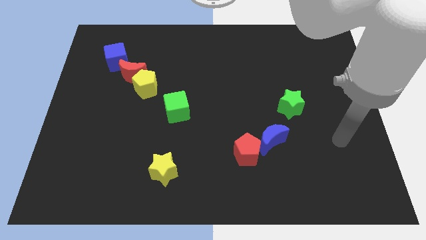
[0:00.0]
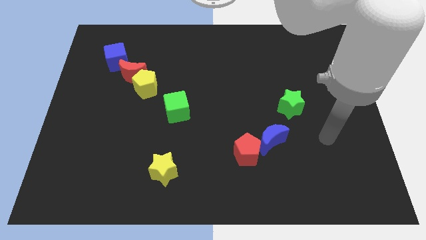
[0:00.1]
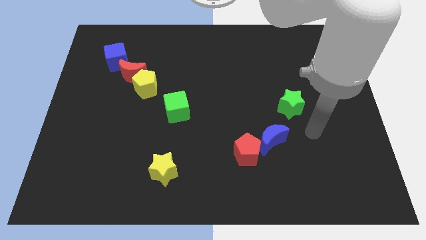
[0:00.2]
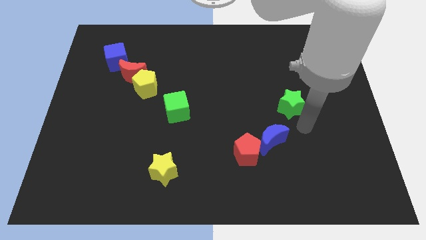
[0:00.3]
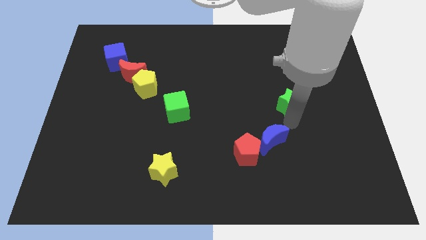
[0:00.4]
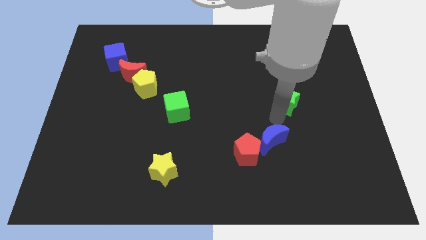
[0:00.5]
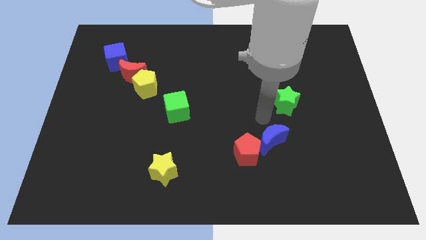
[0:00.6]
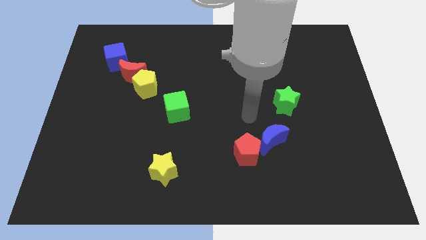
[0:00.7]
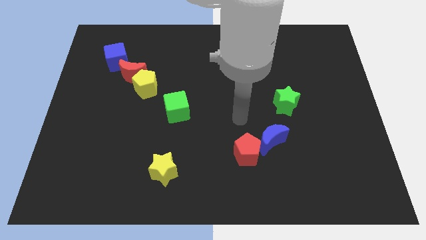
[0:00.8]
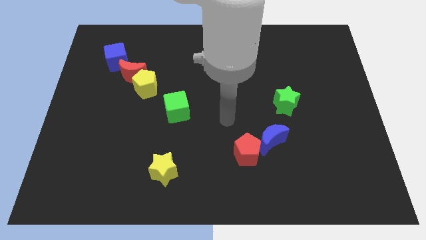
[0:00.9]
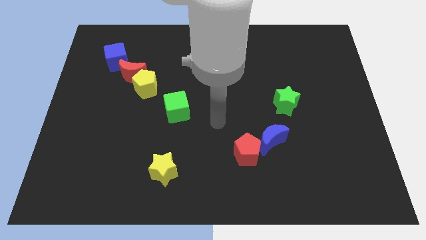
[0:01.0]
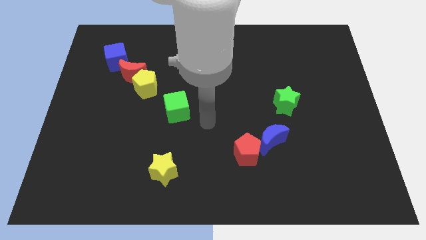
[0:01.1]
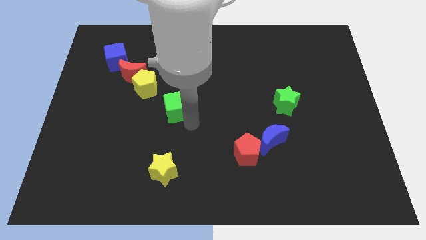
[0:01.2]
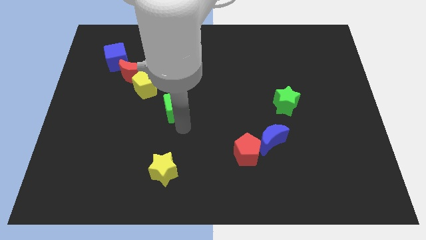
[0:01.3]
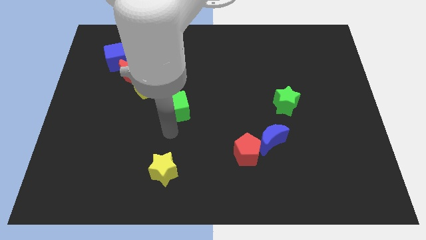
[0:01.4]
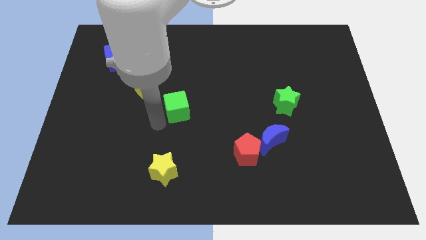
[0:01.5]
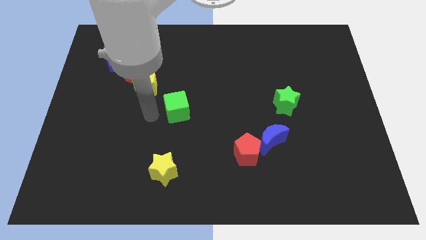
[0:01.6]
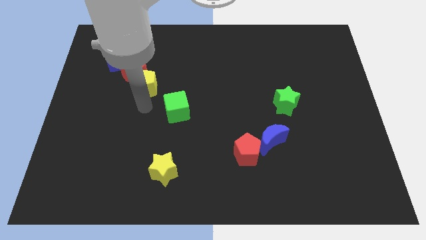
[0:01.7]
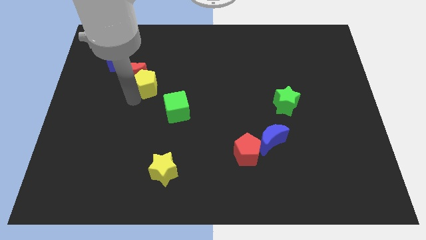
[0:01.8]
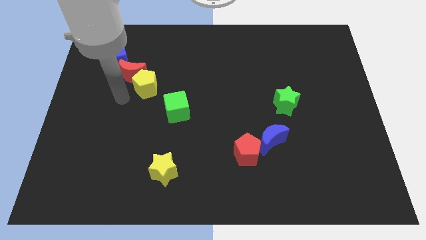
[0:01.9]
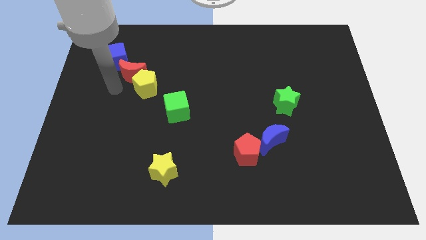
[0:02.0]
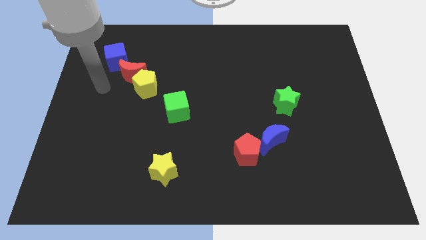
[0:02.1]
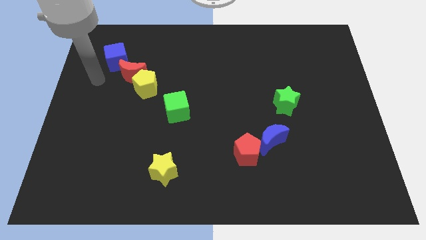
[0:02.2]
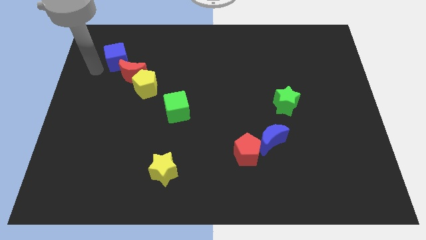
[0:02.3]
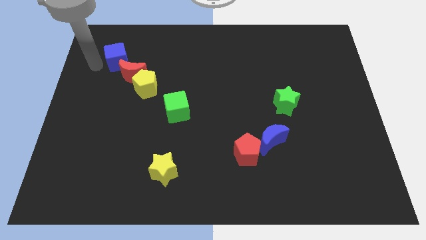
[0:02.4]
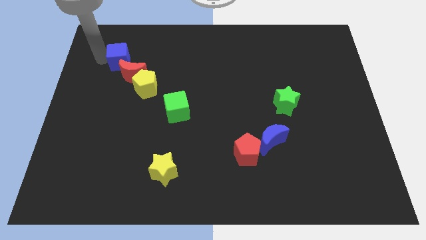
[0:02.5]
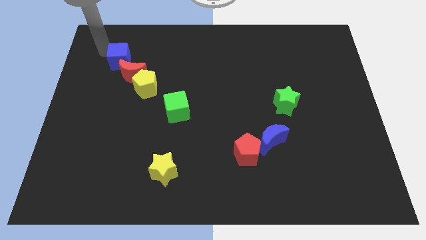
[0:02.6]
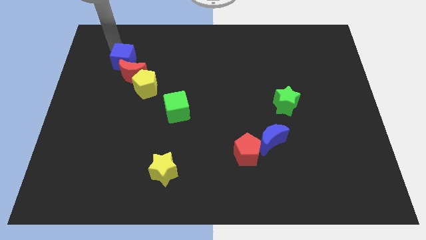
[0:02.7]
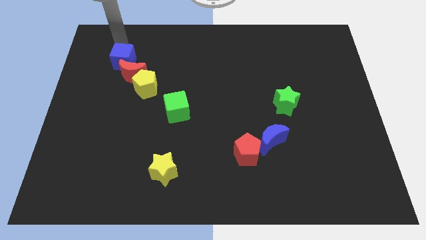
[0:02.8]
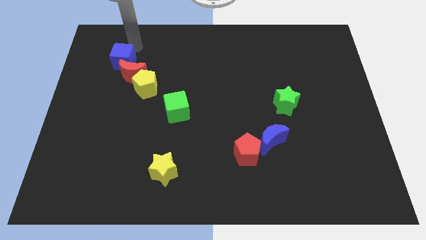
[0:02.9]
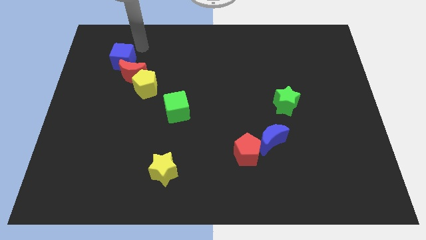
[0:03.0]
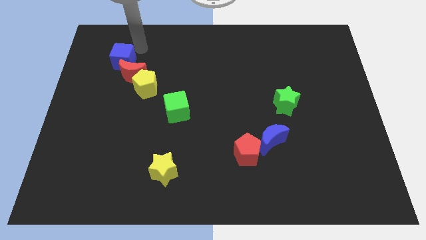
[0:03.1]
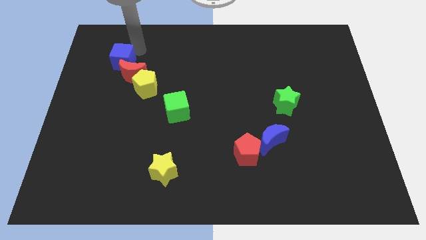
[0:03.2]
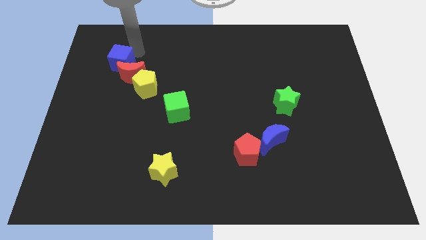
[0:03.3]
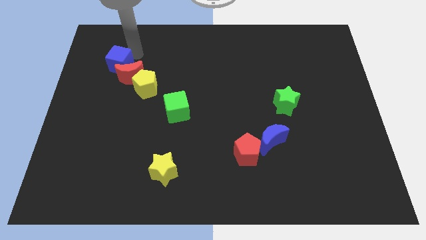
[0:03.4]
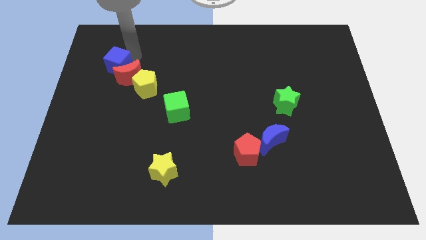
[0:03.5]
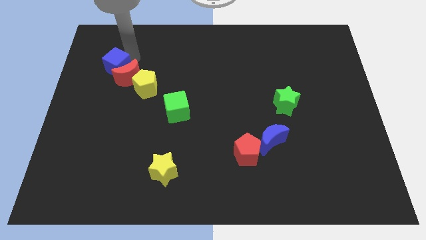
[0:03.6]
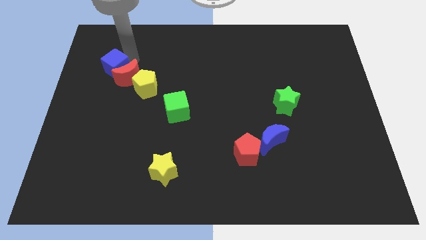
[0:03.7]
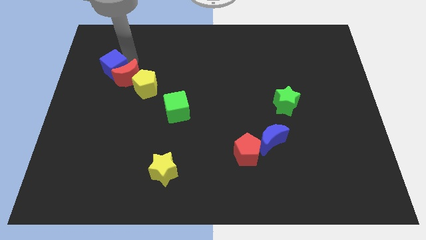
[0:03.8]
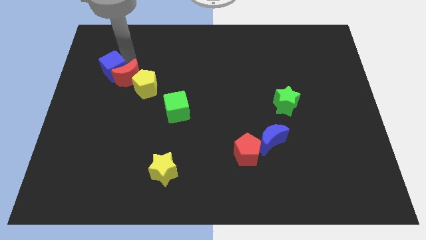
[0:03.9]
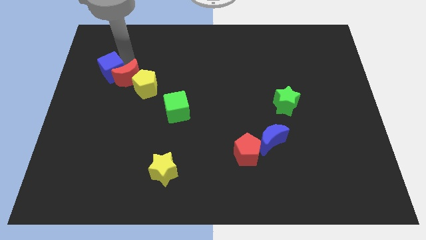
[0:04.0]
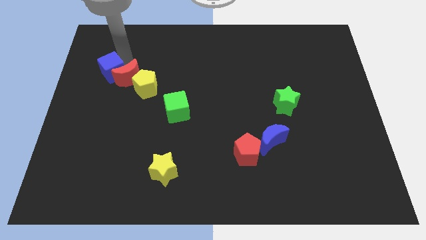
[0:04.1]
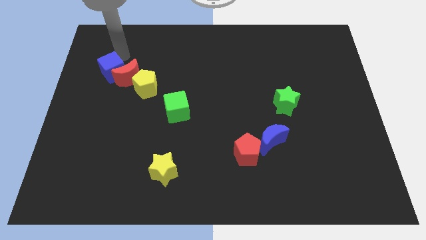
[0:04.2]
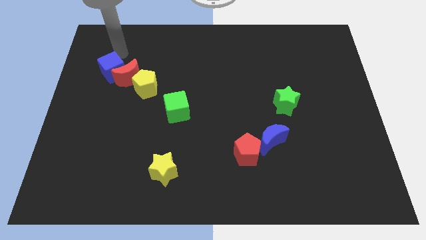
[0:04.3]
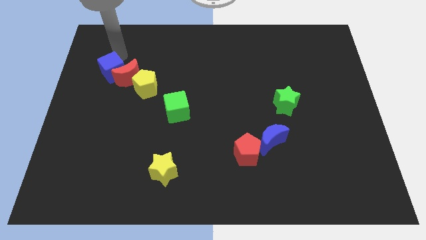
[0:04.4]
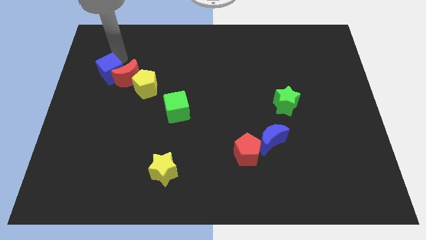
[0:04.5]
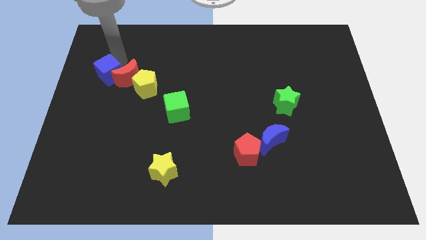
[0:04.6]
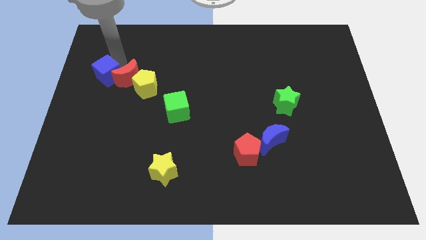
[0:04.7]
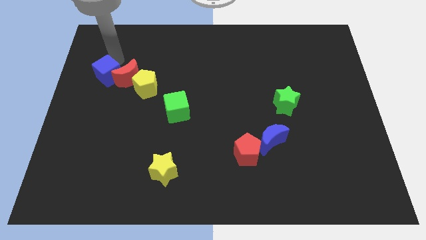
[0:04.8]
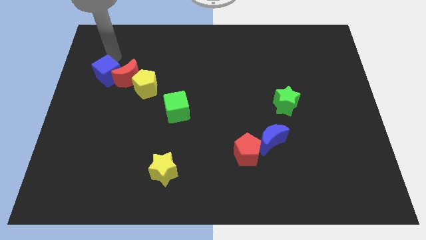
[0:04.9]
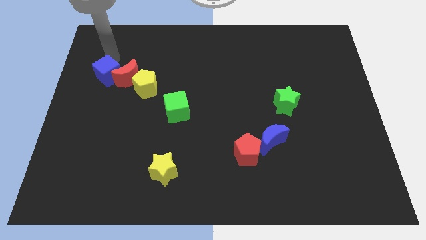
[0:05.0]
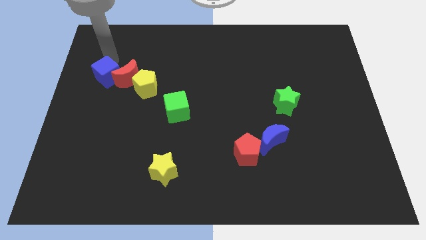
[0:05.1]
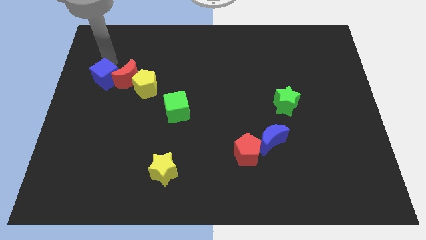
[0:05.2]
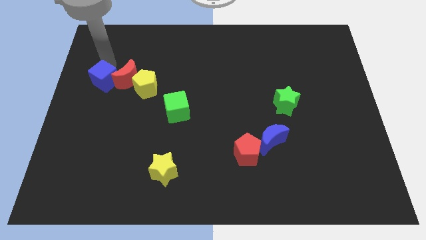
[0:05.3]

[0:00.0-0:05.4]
push the blue cube down a little

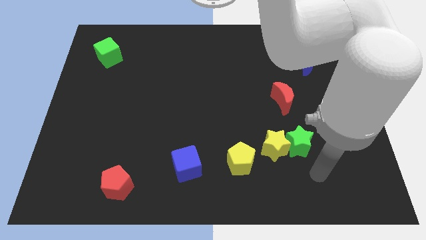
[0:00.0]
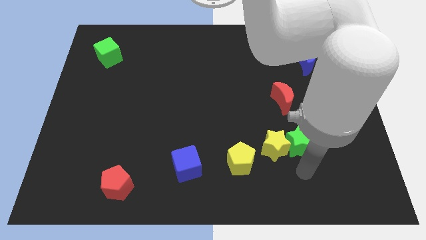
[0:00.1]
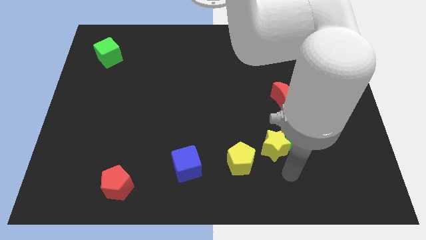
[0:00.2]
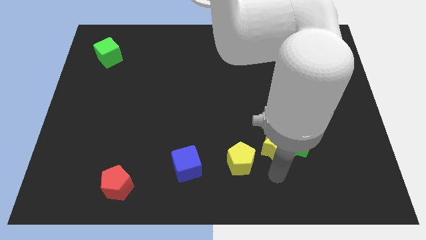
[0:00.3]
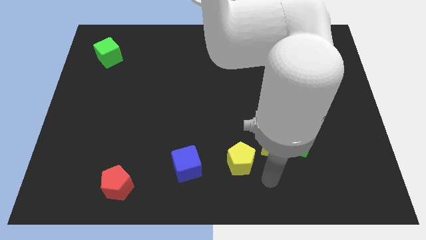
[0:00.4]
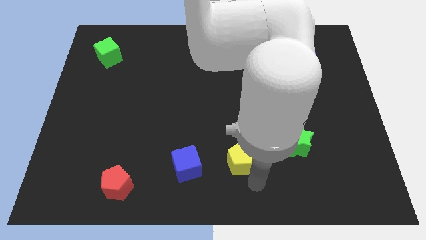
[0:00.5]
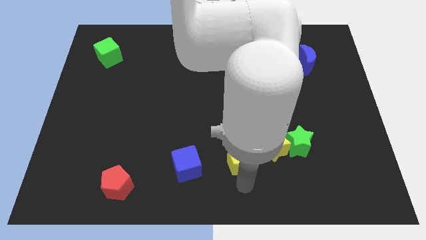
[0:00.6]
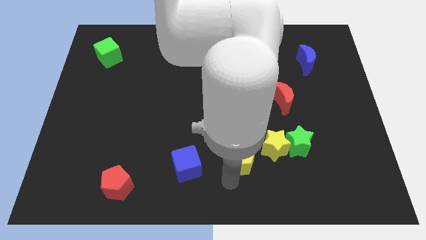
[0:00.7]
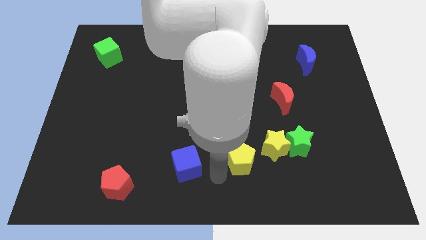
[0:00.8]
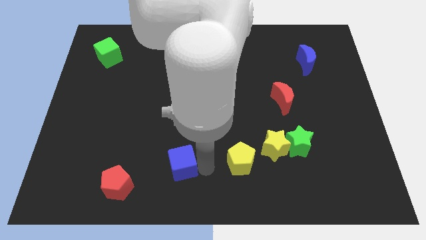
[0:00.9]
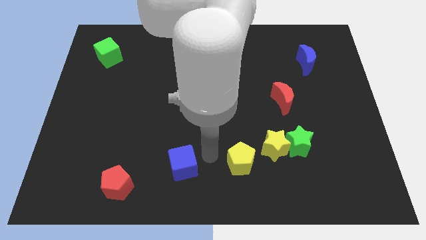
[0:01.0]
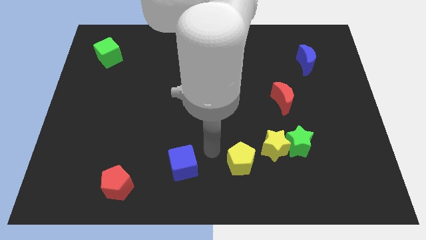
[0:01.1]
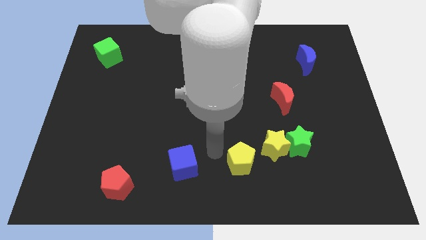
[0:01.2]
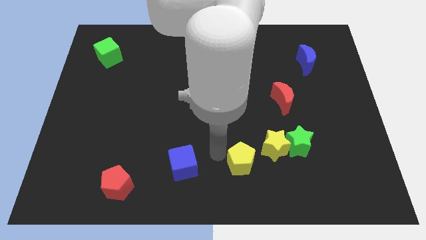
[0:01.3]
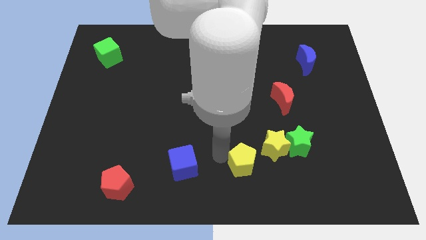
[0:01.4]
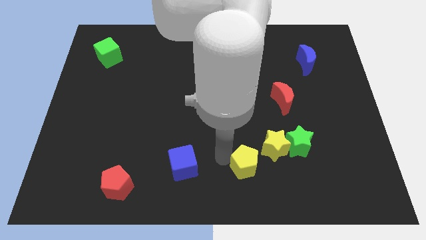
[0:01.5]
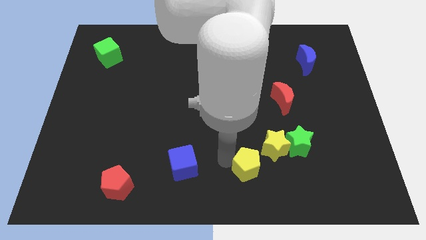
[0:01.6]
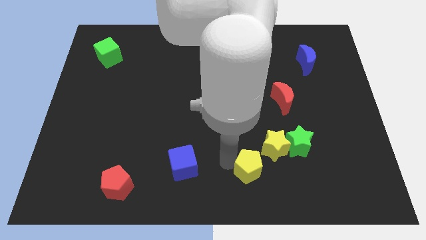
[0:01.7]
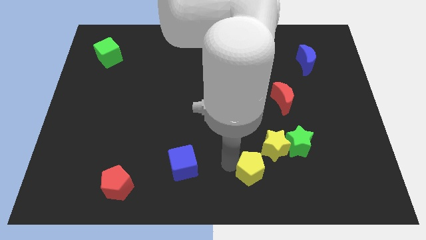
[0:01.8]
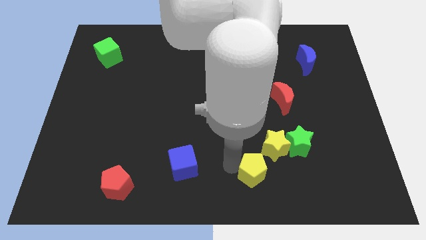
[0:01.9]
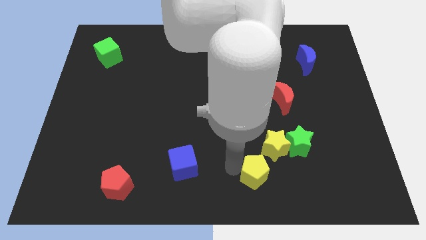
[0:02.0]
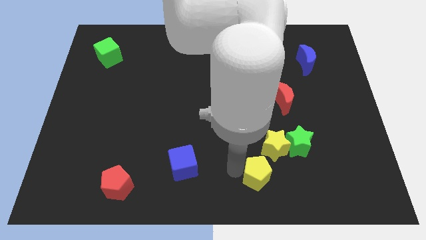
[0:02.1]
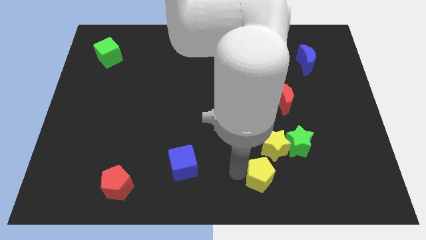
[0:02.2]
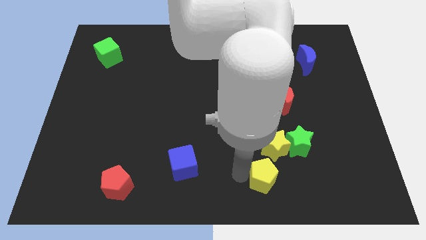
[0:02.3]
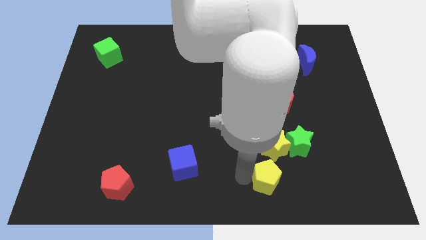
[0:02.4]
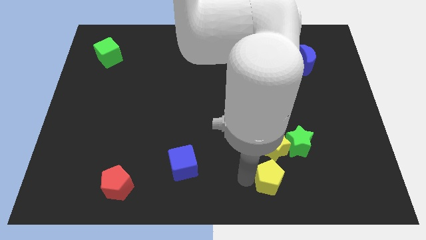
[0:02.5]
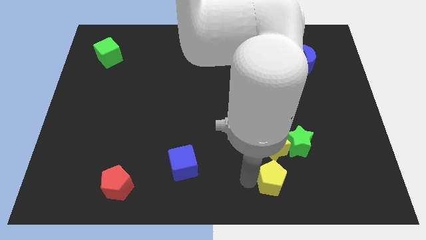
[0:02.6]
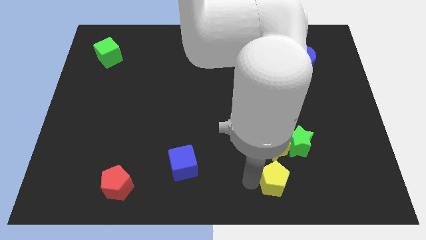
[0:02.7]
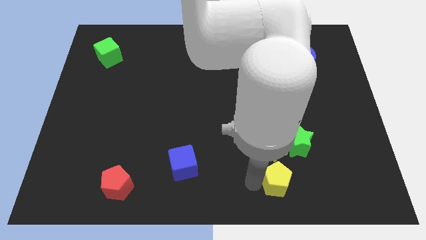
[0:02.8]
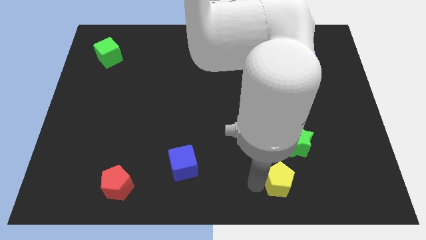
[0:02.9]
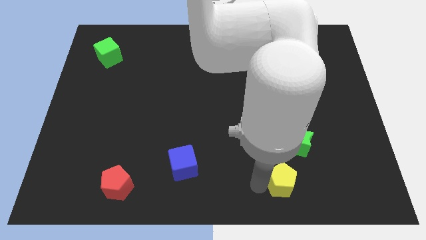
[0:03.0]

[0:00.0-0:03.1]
slide the yellow pentagon to the right a little bit
